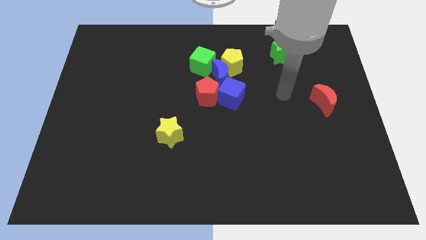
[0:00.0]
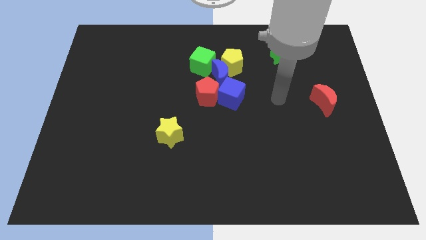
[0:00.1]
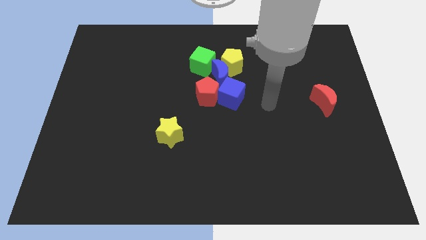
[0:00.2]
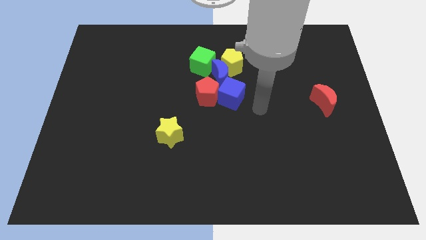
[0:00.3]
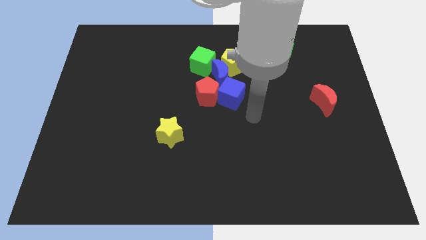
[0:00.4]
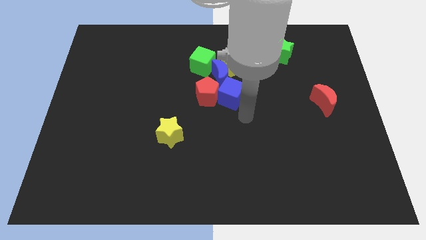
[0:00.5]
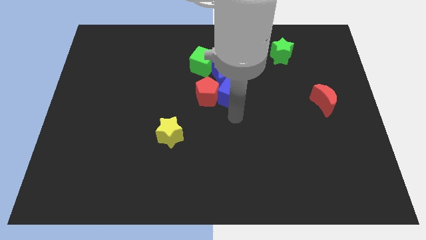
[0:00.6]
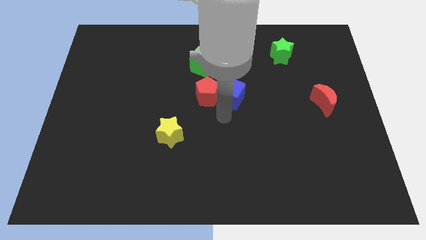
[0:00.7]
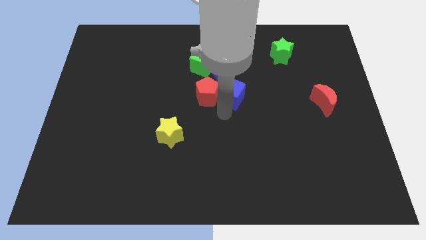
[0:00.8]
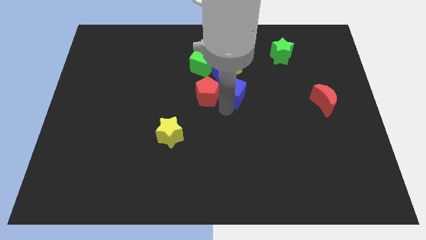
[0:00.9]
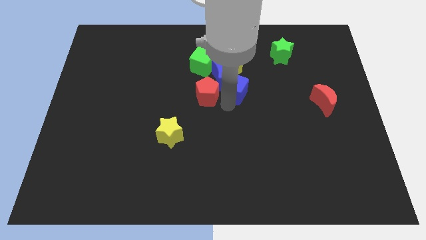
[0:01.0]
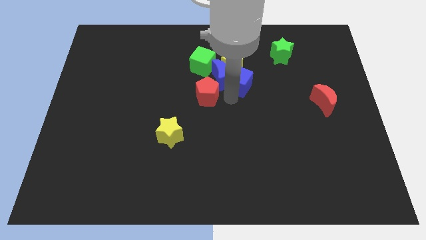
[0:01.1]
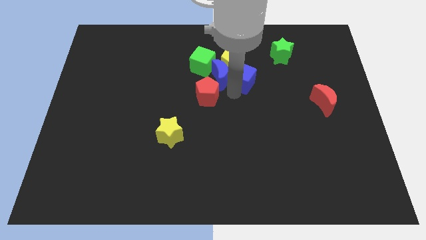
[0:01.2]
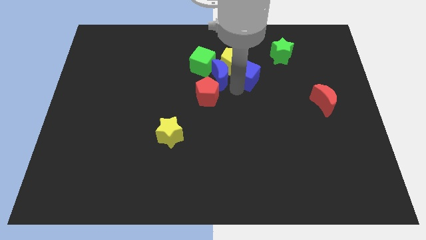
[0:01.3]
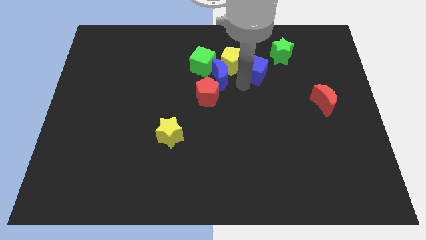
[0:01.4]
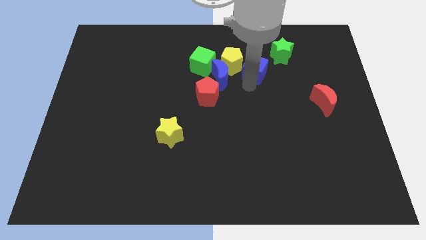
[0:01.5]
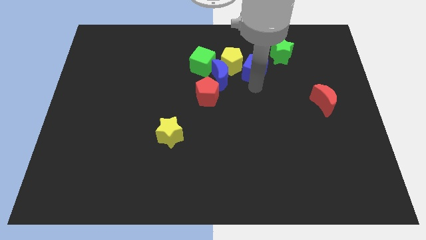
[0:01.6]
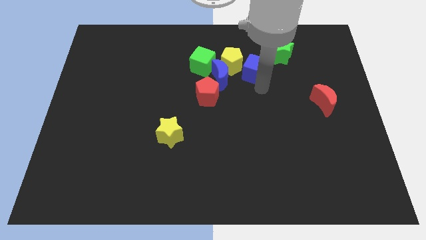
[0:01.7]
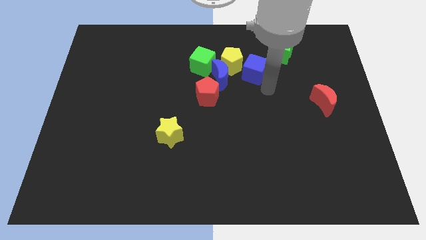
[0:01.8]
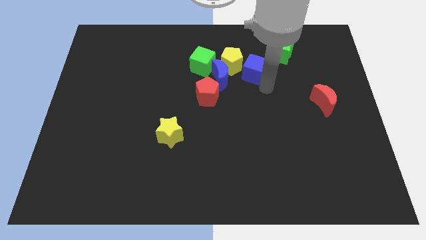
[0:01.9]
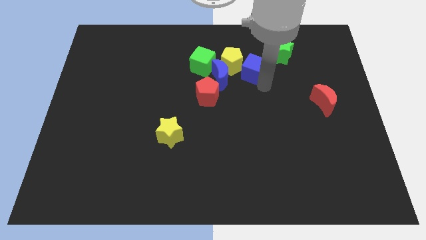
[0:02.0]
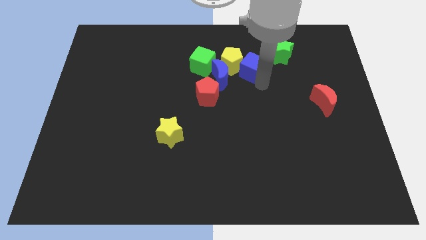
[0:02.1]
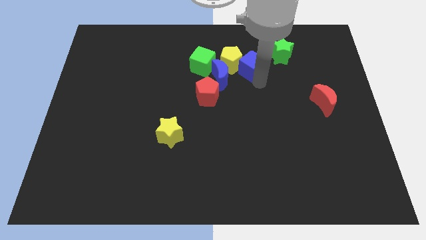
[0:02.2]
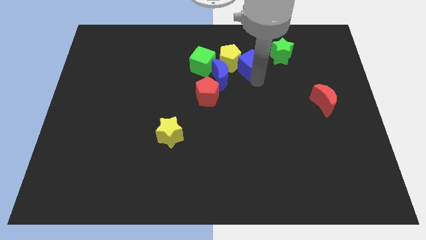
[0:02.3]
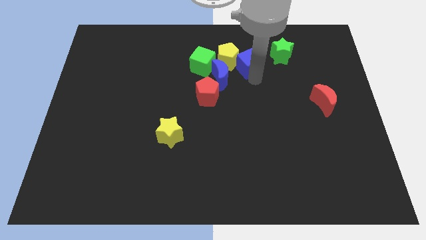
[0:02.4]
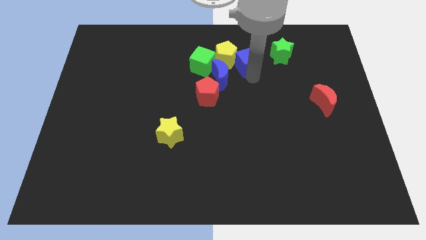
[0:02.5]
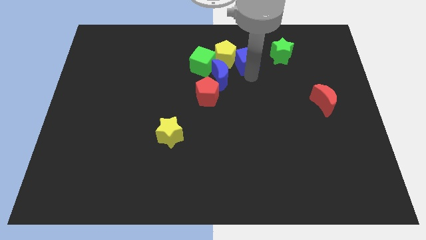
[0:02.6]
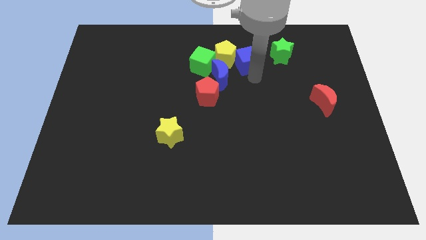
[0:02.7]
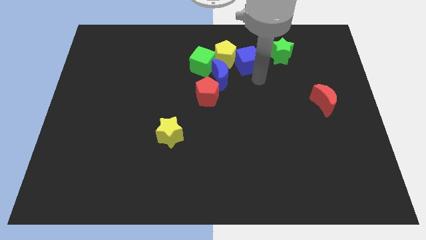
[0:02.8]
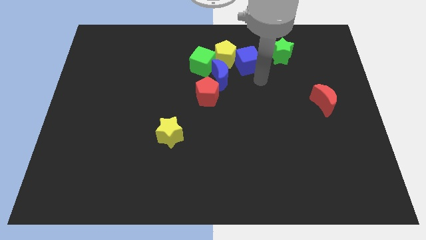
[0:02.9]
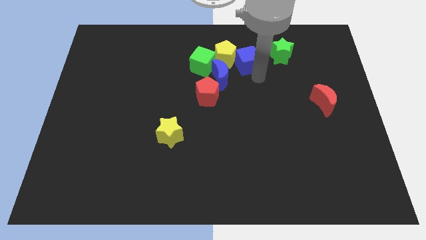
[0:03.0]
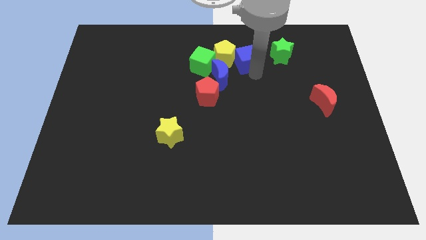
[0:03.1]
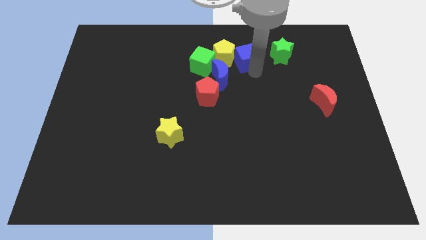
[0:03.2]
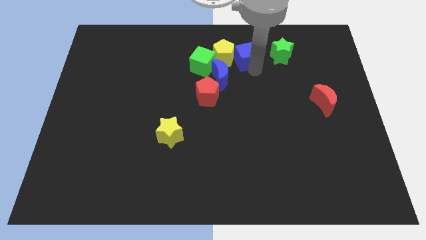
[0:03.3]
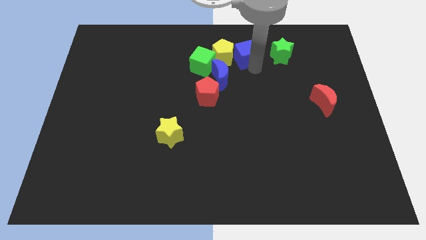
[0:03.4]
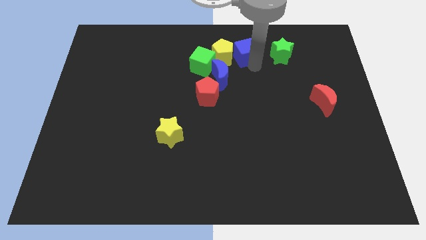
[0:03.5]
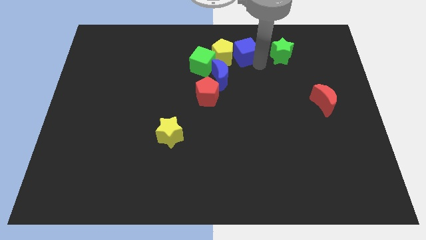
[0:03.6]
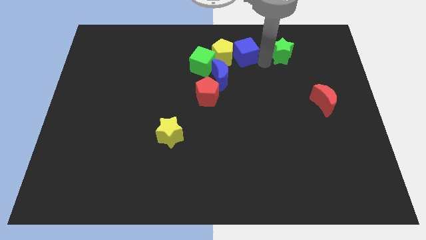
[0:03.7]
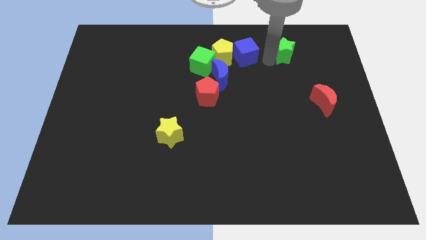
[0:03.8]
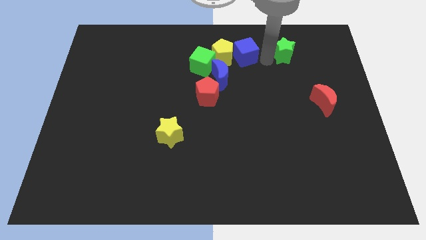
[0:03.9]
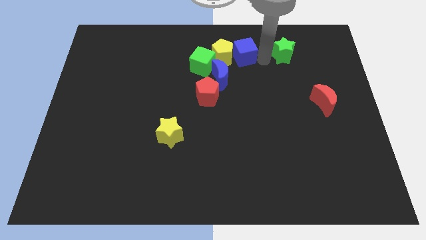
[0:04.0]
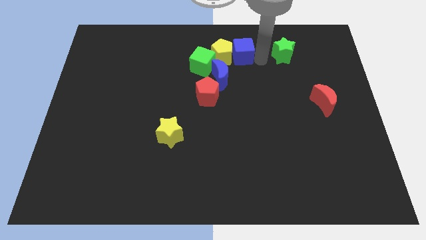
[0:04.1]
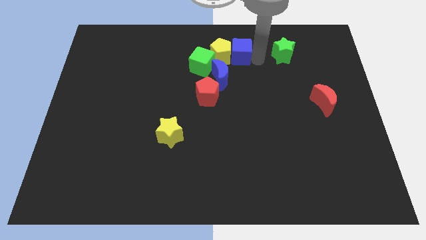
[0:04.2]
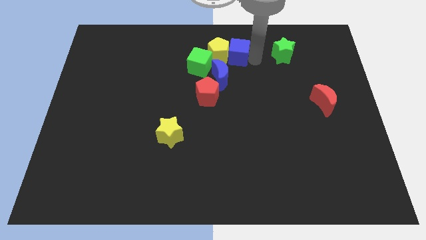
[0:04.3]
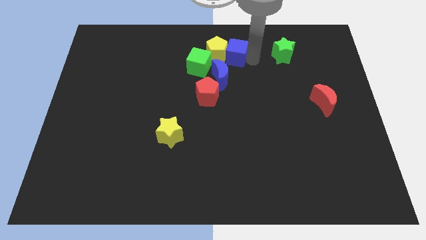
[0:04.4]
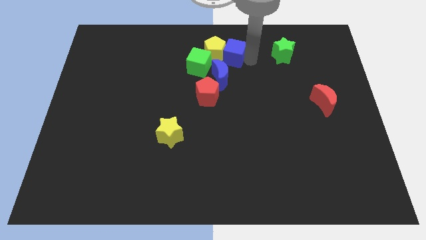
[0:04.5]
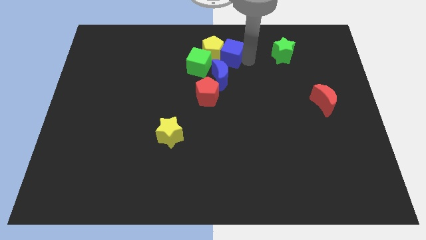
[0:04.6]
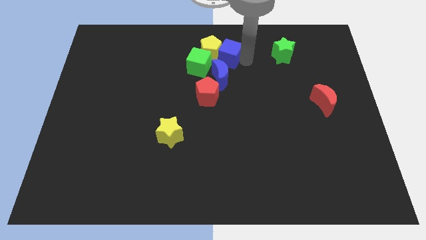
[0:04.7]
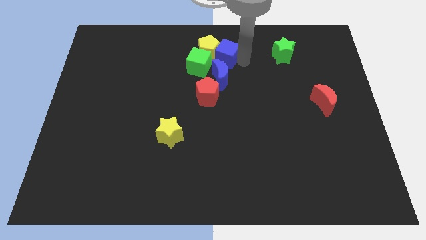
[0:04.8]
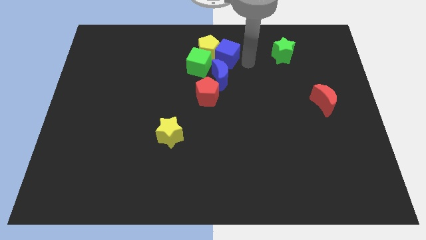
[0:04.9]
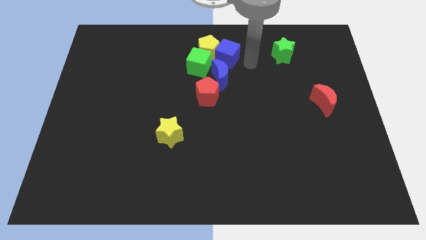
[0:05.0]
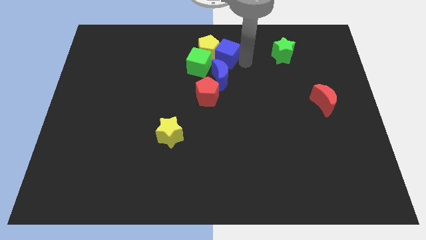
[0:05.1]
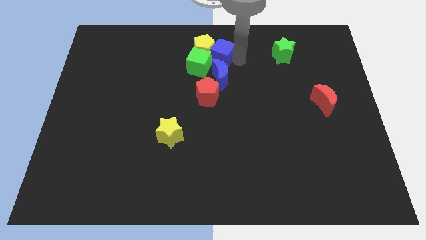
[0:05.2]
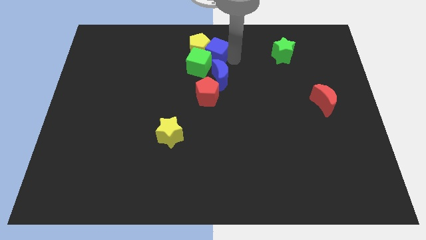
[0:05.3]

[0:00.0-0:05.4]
slide the blue cube to the top left of the blue moon

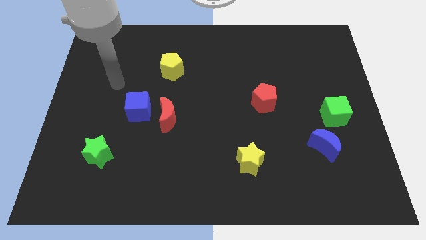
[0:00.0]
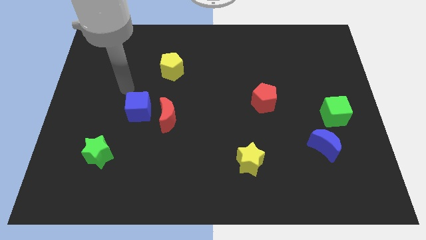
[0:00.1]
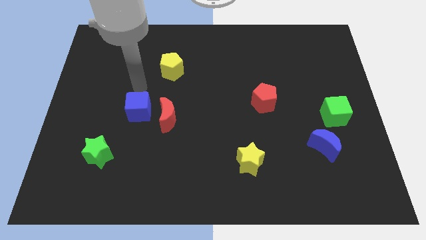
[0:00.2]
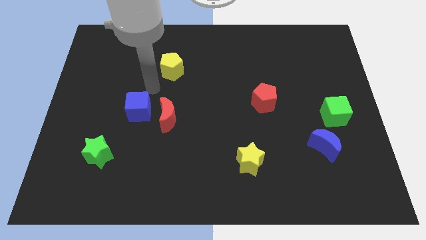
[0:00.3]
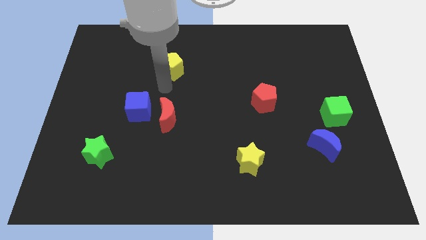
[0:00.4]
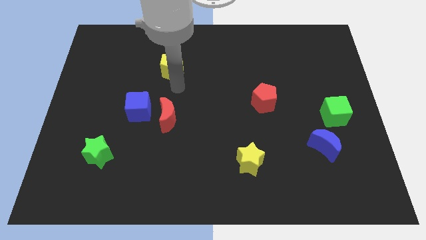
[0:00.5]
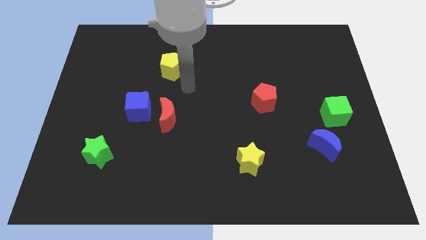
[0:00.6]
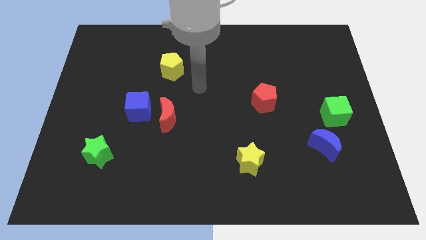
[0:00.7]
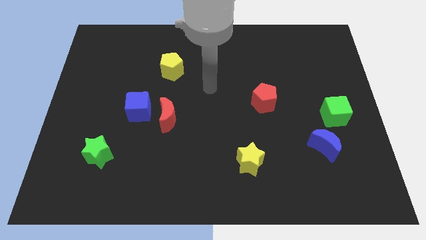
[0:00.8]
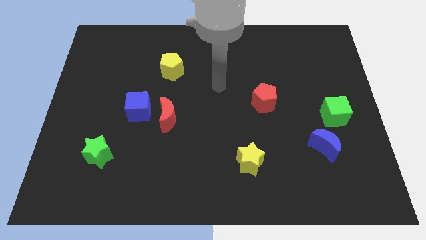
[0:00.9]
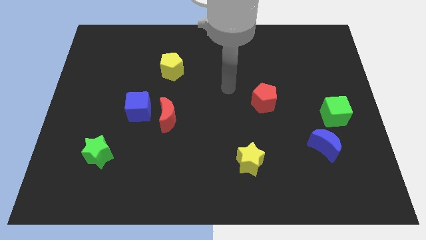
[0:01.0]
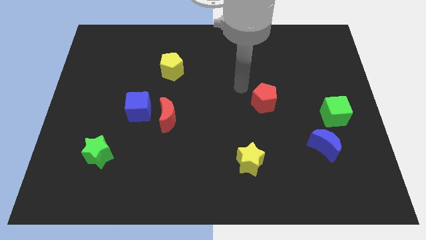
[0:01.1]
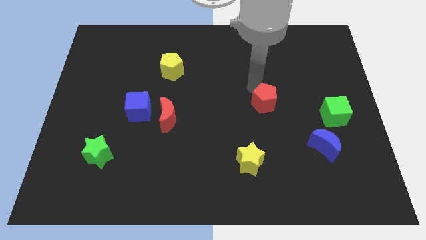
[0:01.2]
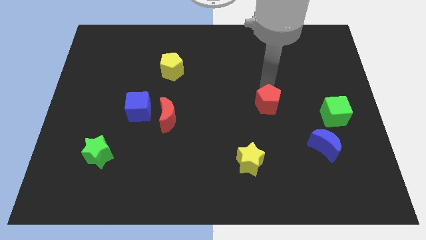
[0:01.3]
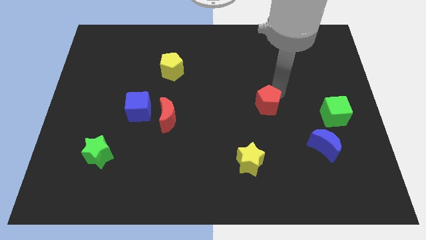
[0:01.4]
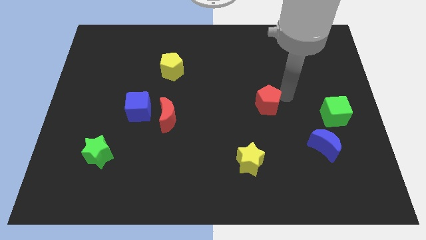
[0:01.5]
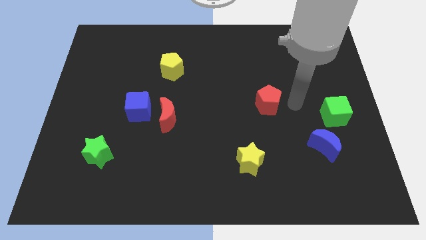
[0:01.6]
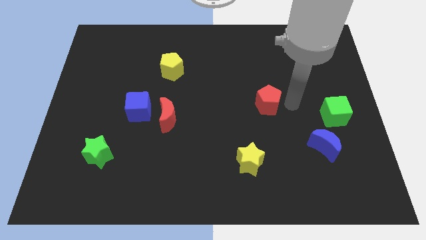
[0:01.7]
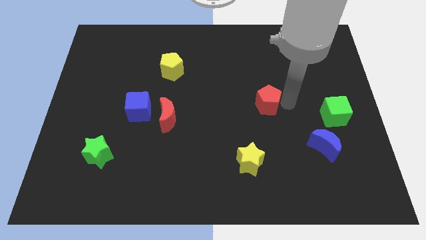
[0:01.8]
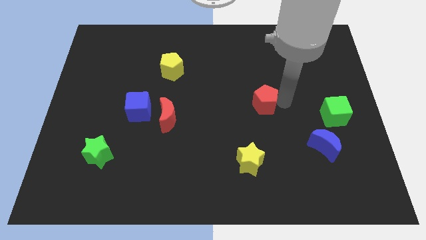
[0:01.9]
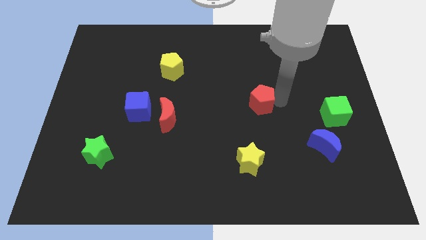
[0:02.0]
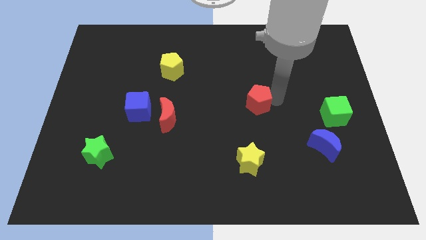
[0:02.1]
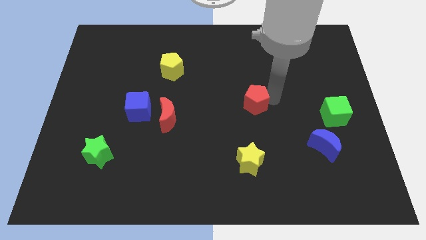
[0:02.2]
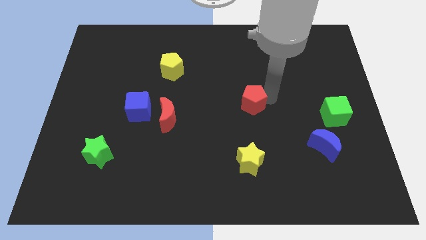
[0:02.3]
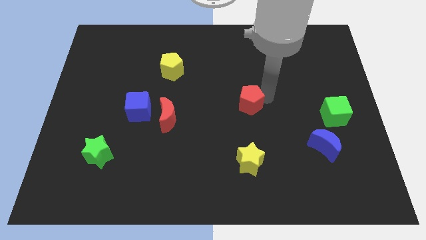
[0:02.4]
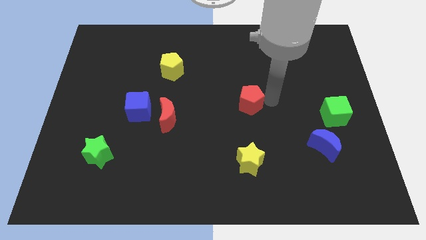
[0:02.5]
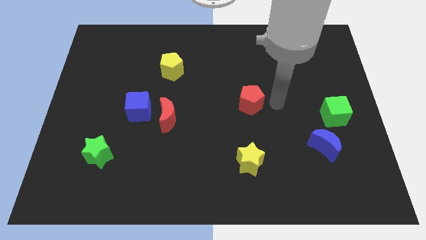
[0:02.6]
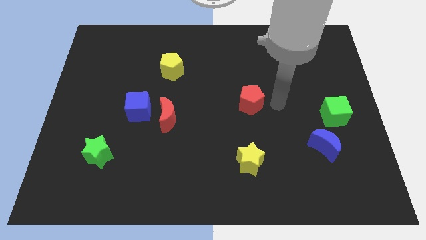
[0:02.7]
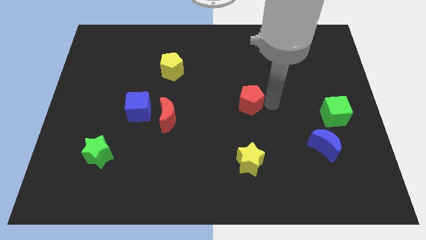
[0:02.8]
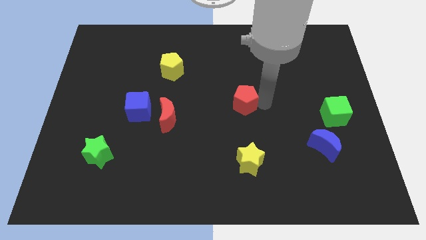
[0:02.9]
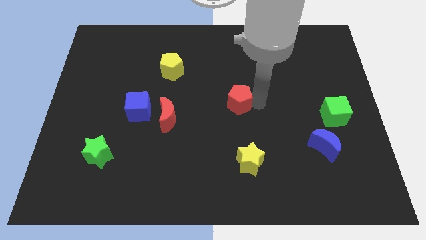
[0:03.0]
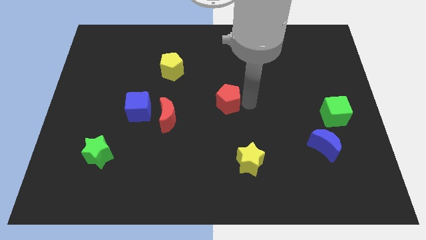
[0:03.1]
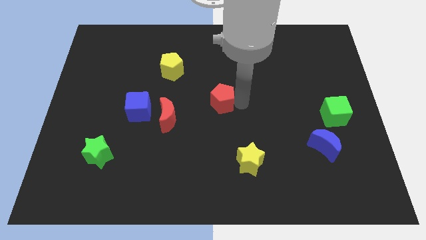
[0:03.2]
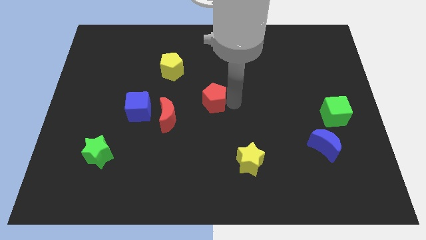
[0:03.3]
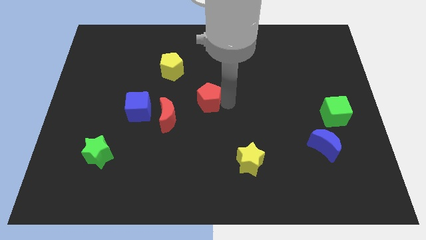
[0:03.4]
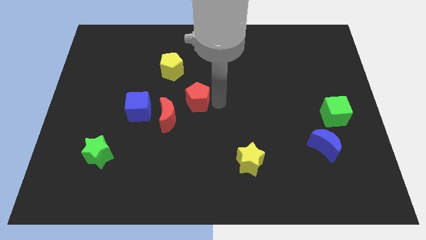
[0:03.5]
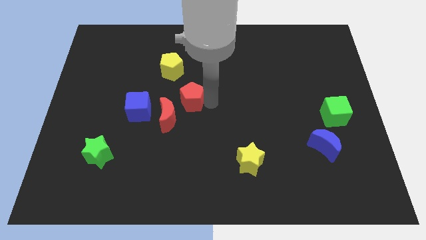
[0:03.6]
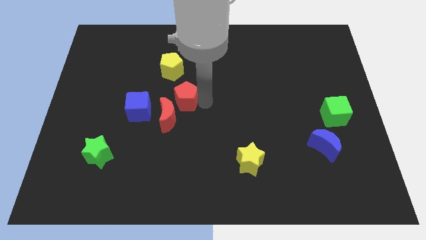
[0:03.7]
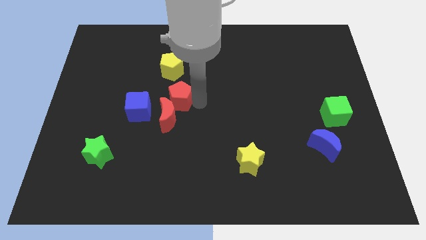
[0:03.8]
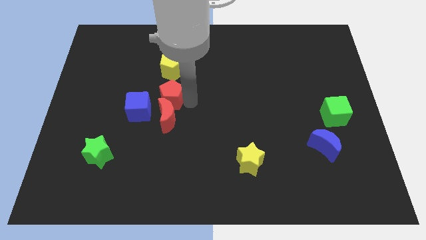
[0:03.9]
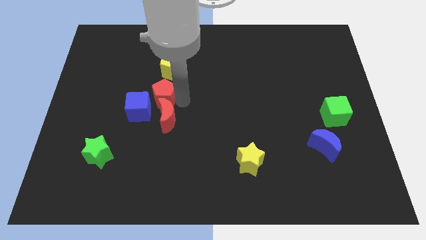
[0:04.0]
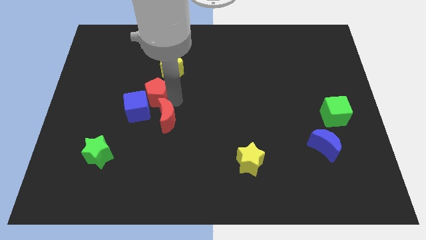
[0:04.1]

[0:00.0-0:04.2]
move the red pentagon to the bottom left side of the yellow pentagon
